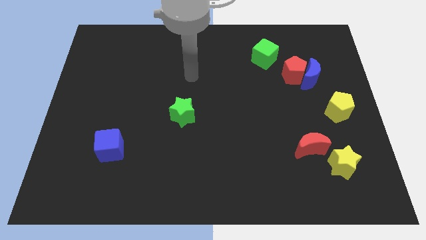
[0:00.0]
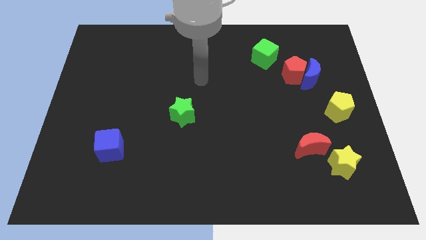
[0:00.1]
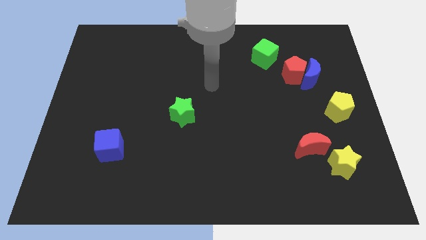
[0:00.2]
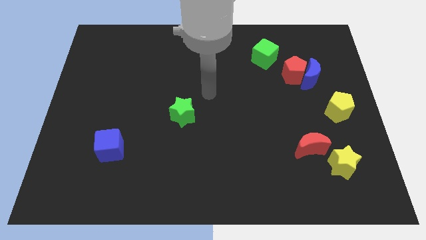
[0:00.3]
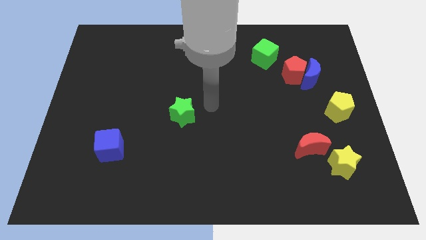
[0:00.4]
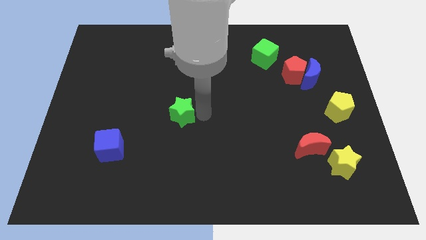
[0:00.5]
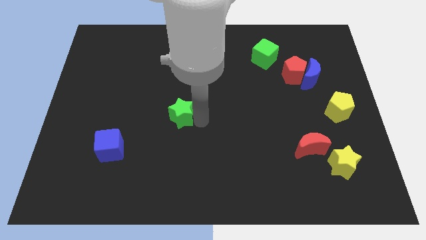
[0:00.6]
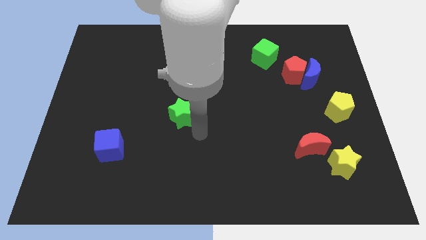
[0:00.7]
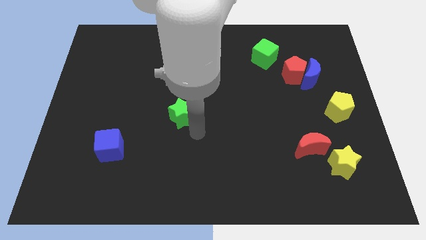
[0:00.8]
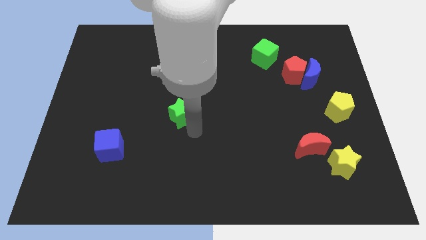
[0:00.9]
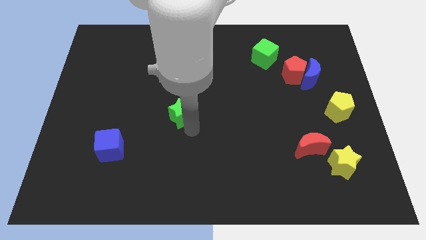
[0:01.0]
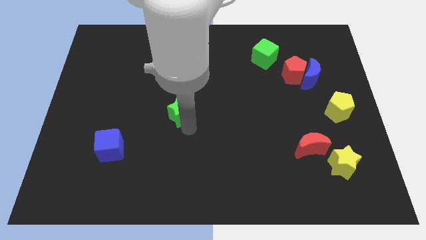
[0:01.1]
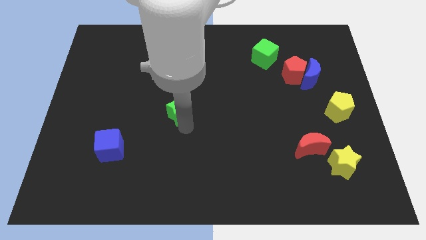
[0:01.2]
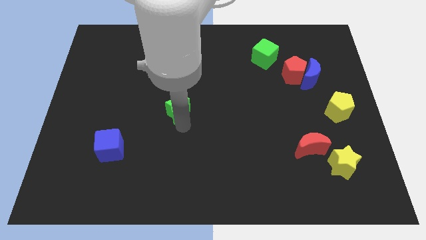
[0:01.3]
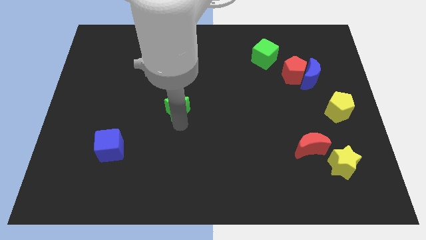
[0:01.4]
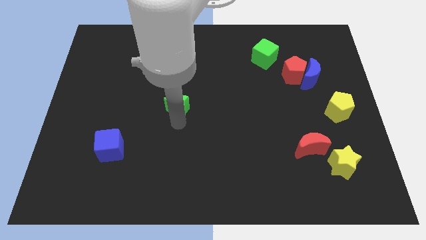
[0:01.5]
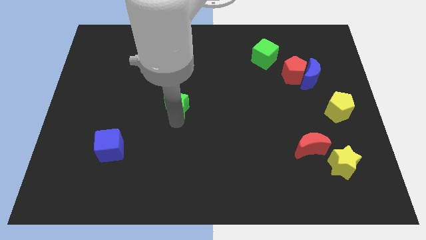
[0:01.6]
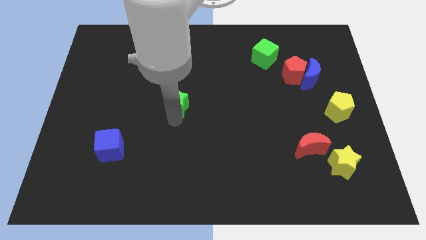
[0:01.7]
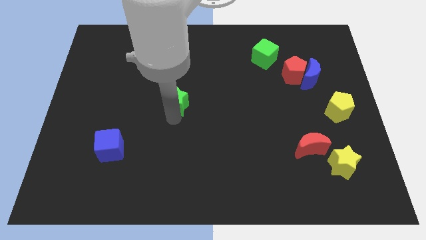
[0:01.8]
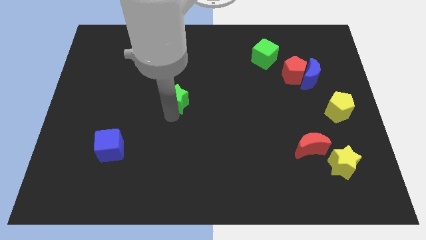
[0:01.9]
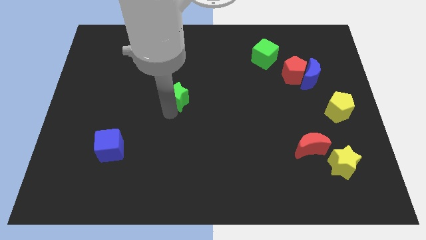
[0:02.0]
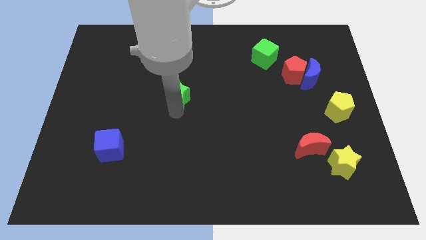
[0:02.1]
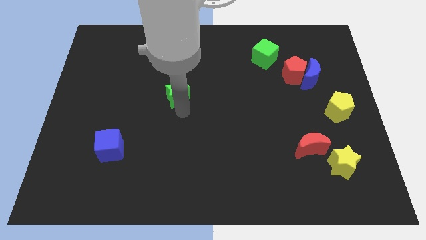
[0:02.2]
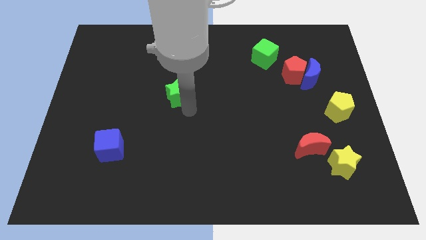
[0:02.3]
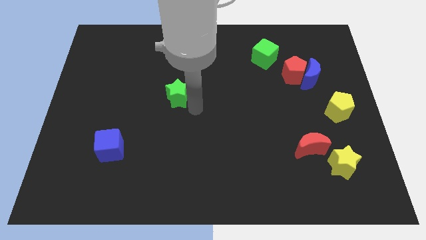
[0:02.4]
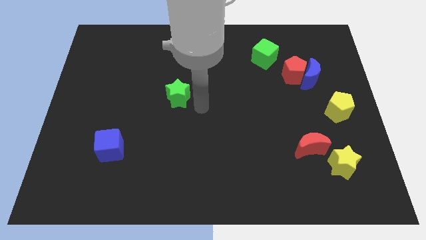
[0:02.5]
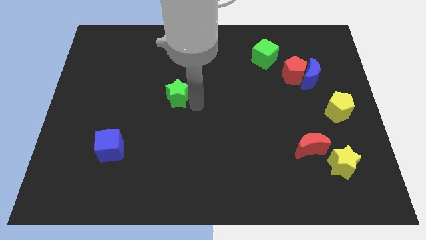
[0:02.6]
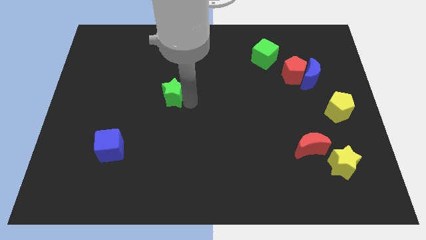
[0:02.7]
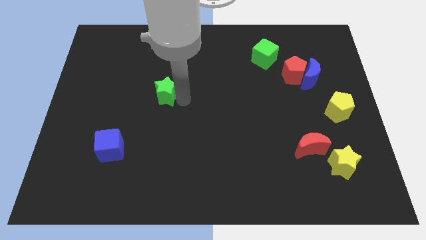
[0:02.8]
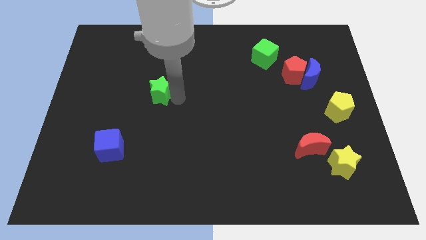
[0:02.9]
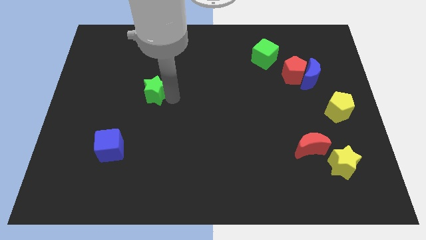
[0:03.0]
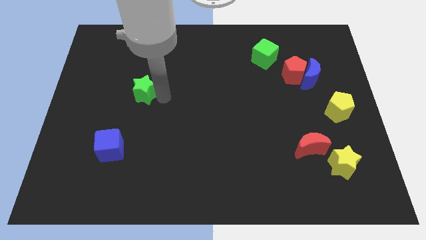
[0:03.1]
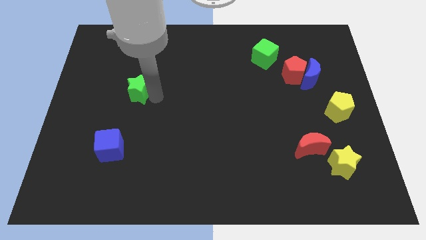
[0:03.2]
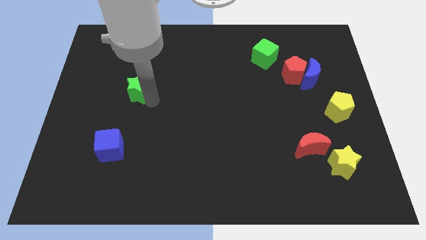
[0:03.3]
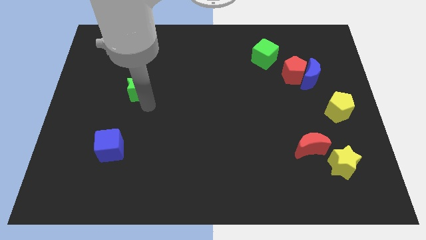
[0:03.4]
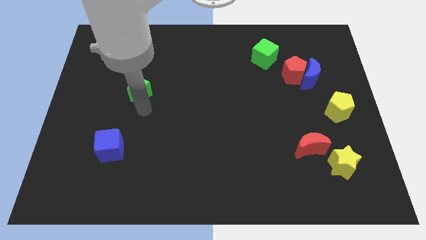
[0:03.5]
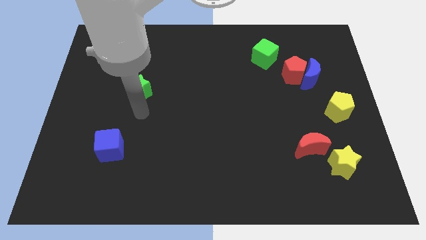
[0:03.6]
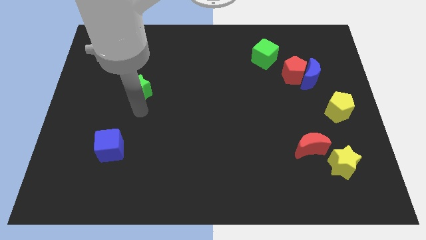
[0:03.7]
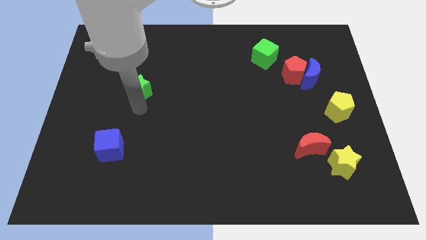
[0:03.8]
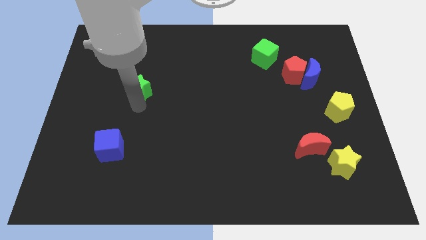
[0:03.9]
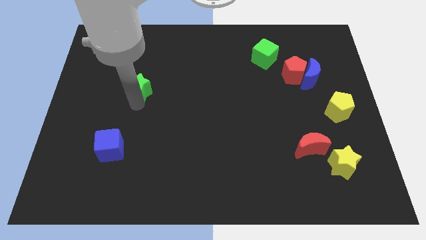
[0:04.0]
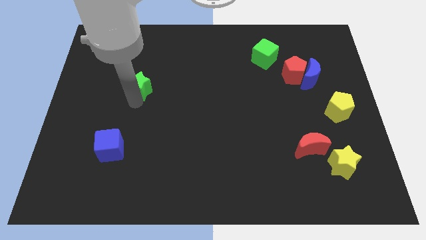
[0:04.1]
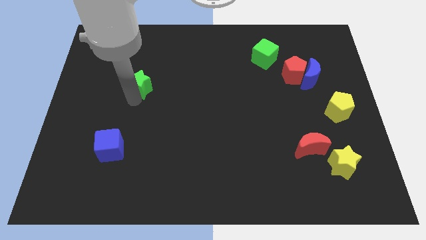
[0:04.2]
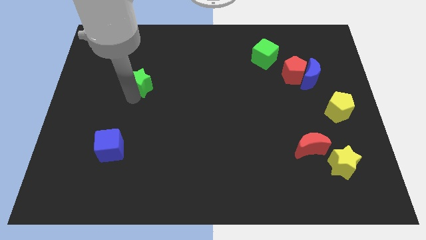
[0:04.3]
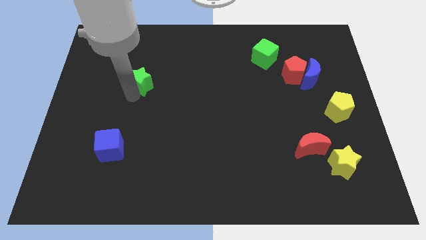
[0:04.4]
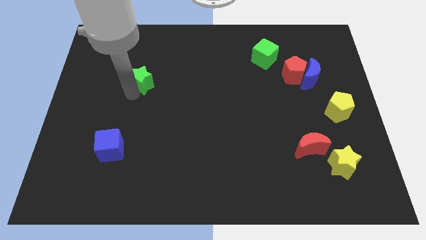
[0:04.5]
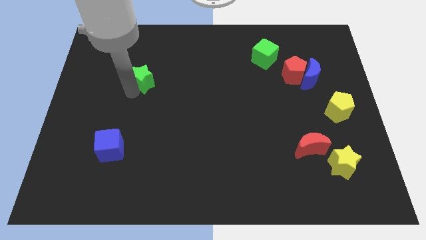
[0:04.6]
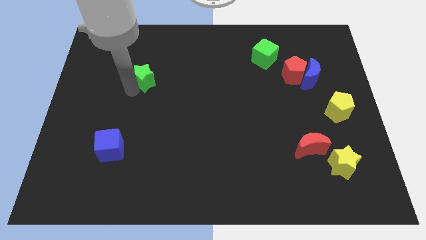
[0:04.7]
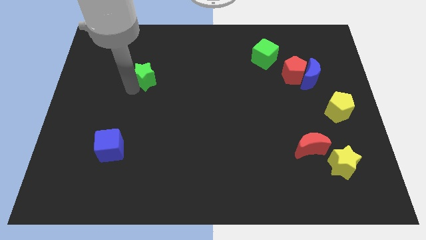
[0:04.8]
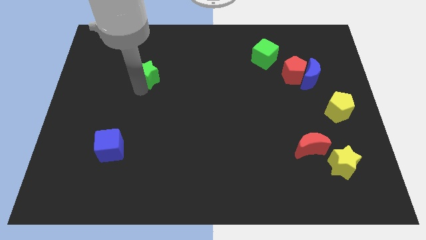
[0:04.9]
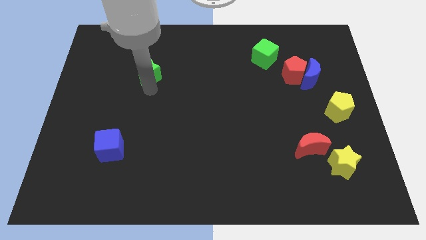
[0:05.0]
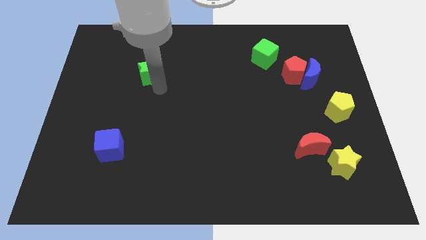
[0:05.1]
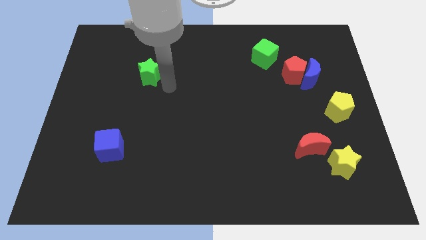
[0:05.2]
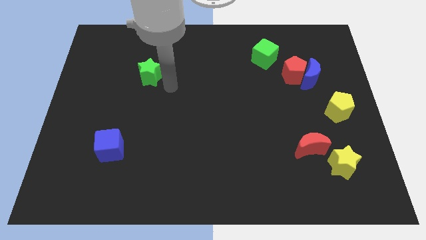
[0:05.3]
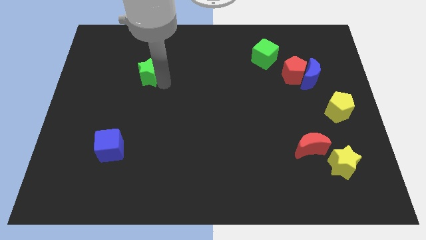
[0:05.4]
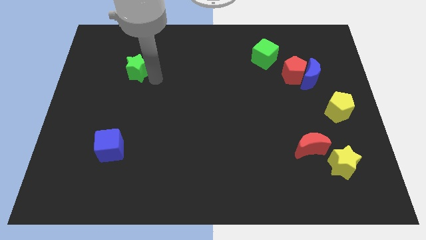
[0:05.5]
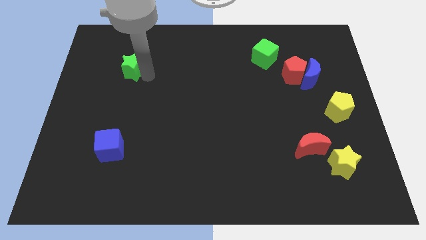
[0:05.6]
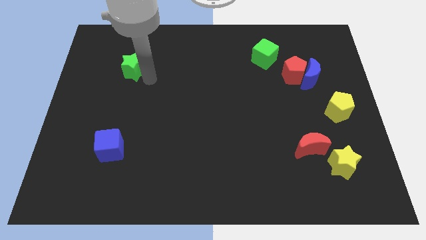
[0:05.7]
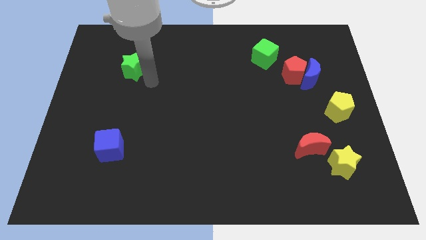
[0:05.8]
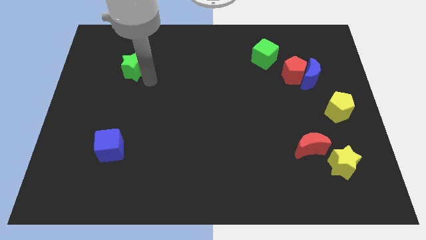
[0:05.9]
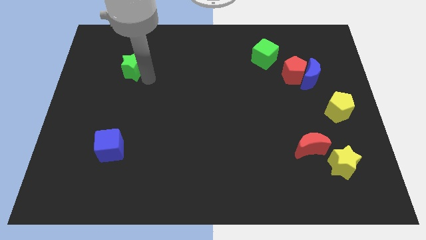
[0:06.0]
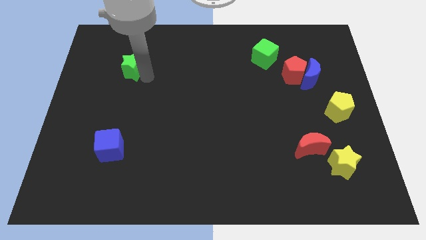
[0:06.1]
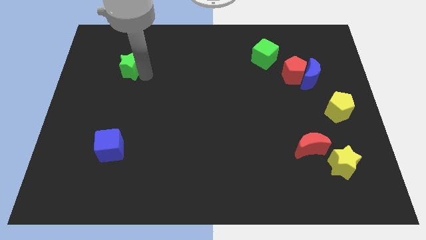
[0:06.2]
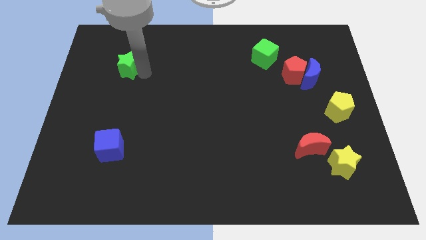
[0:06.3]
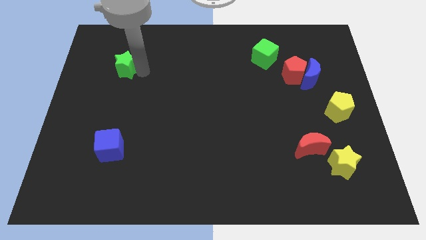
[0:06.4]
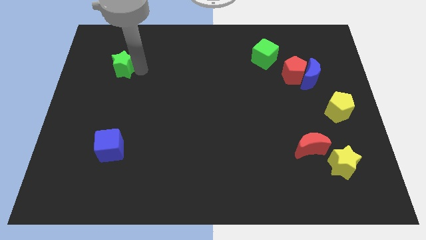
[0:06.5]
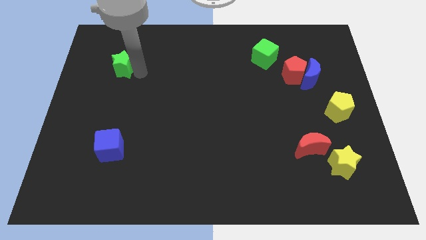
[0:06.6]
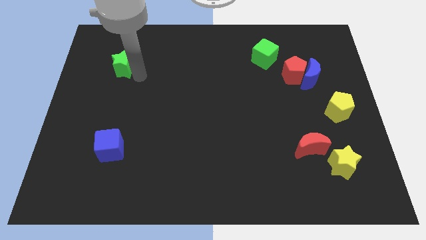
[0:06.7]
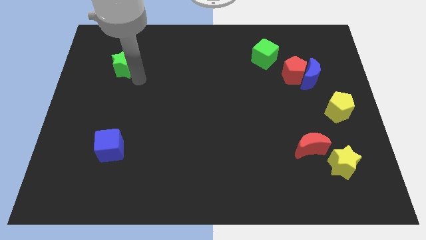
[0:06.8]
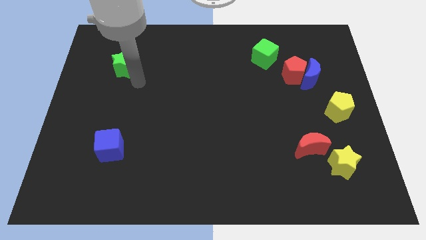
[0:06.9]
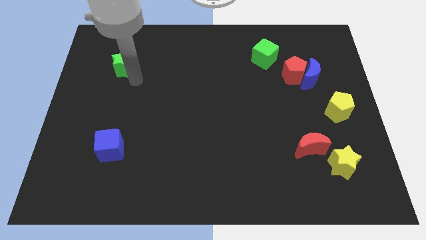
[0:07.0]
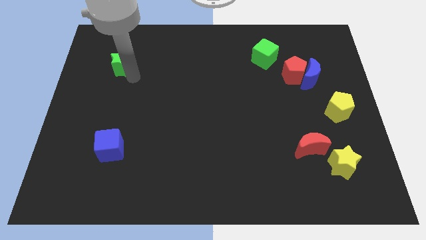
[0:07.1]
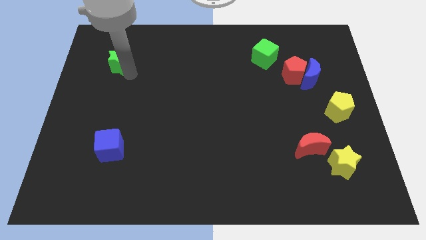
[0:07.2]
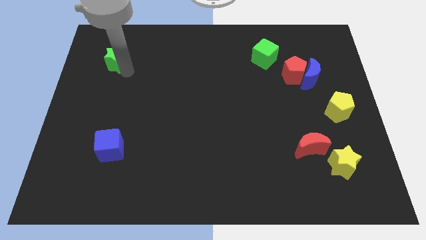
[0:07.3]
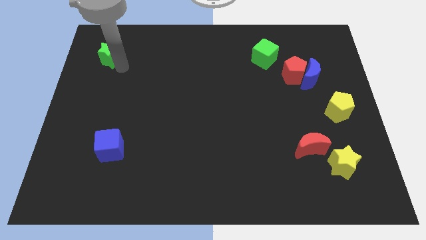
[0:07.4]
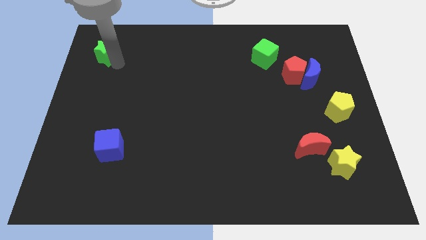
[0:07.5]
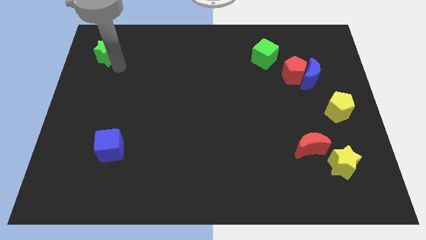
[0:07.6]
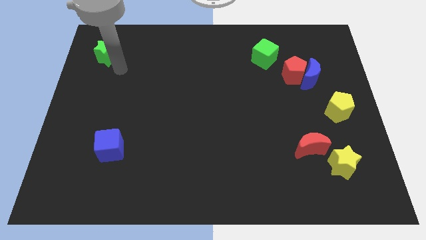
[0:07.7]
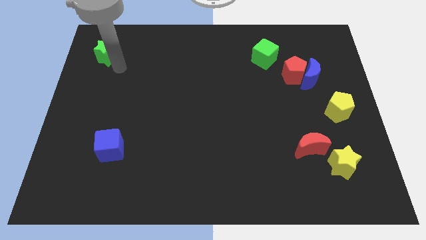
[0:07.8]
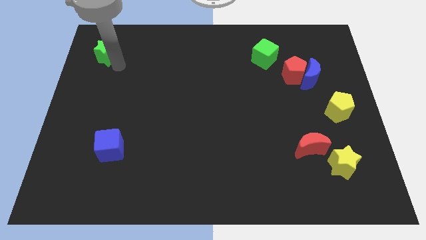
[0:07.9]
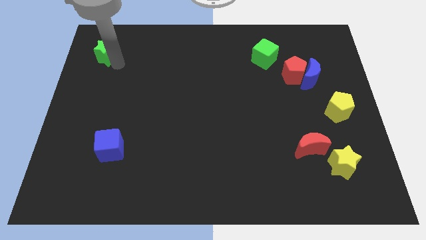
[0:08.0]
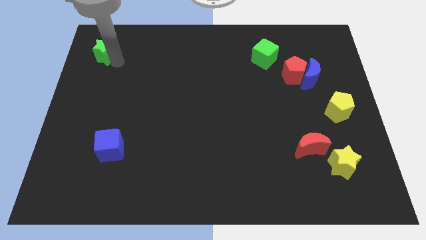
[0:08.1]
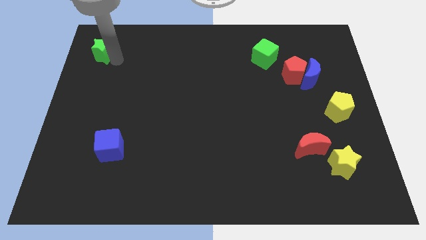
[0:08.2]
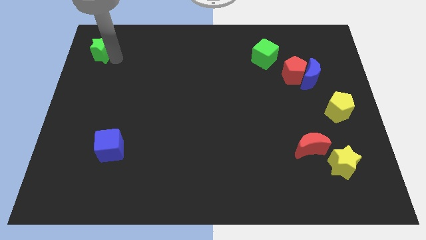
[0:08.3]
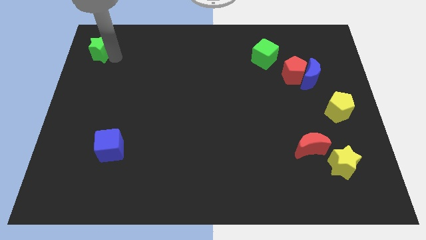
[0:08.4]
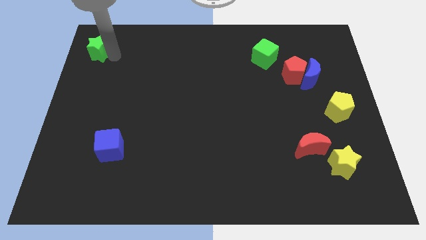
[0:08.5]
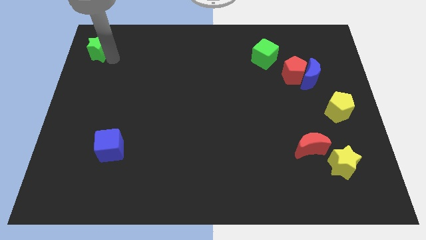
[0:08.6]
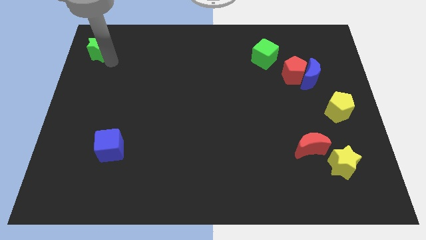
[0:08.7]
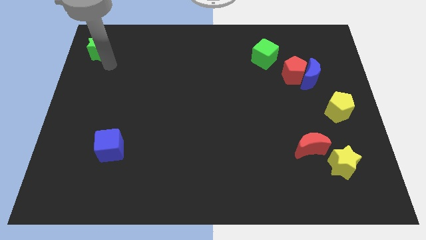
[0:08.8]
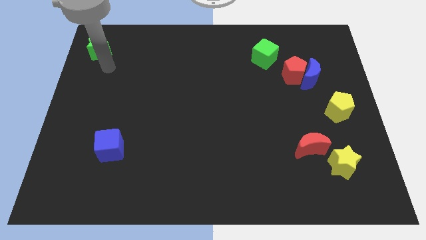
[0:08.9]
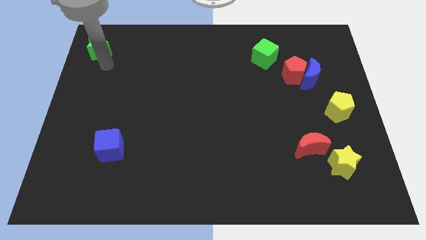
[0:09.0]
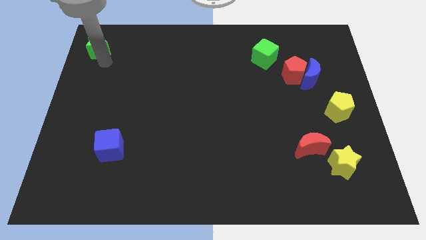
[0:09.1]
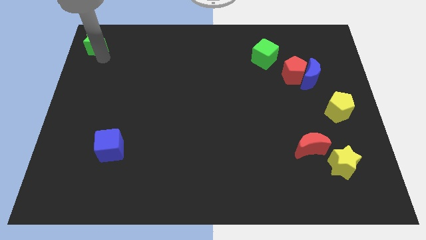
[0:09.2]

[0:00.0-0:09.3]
slide the green star to the top left corner
